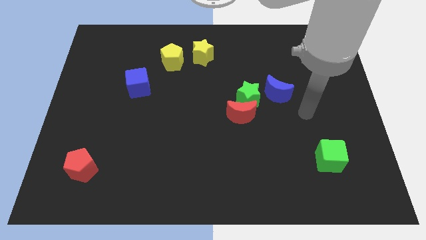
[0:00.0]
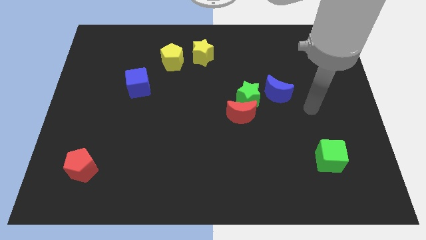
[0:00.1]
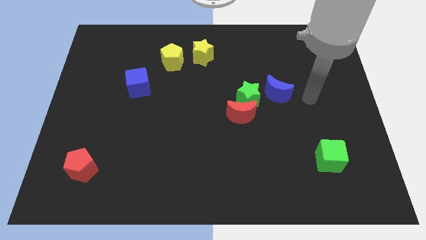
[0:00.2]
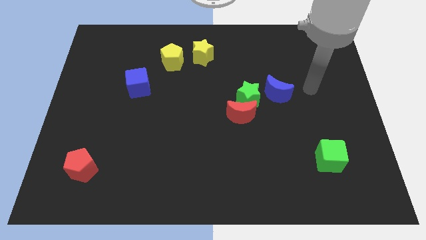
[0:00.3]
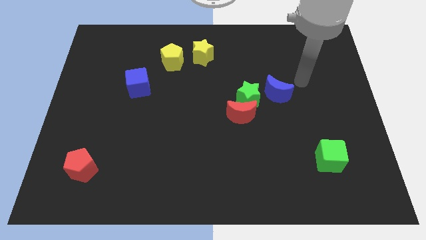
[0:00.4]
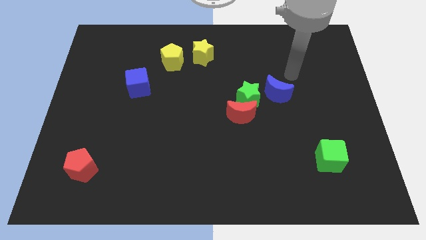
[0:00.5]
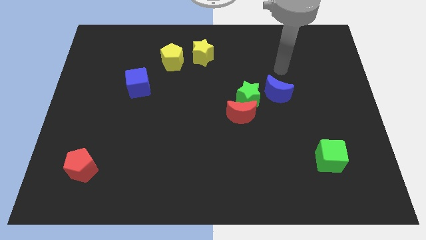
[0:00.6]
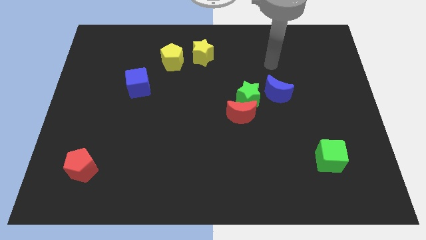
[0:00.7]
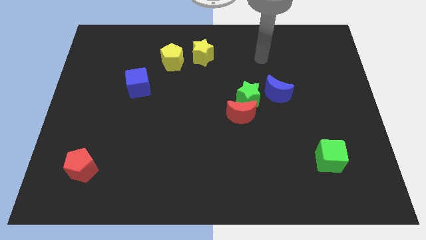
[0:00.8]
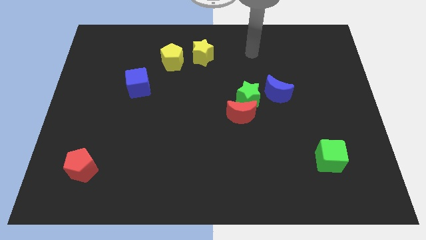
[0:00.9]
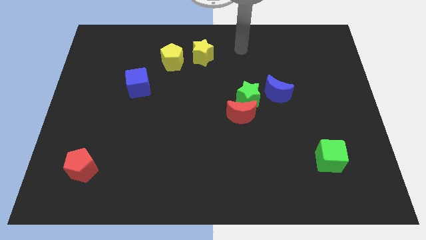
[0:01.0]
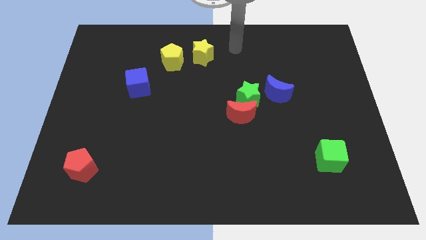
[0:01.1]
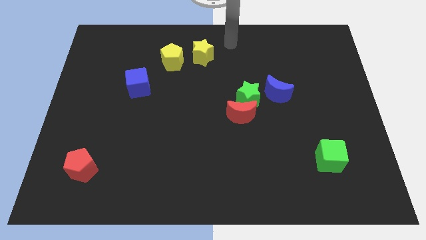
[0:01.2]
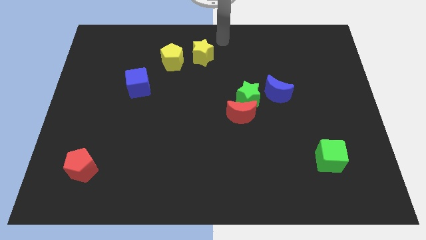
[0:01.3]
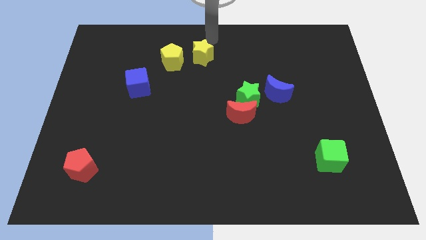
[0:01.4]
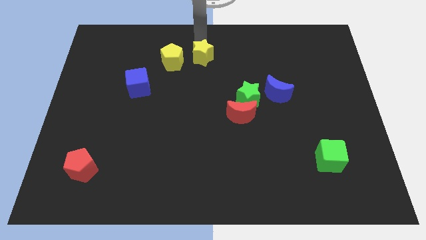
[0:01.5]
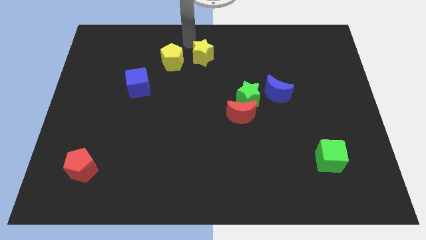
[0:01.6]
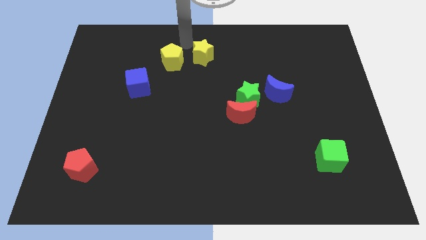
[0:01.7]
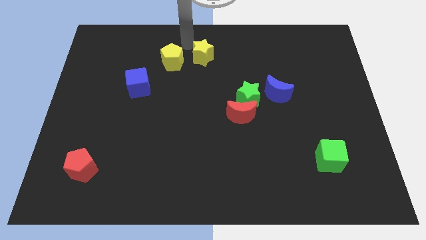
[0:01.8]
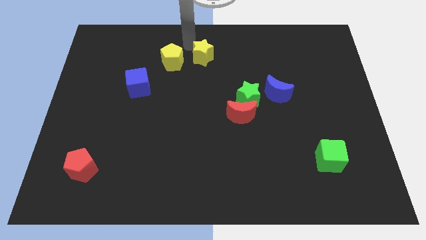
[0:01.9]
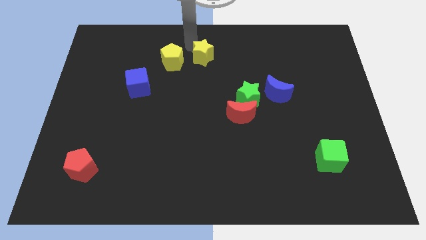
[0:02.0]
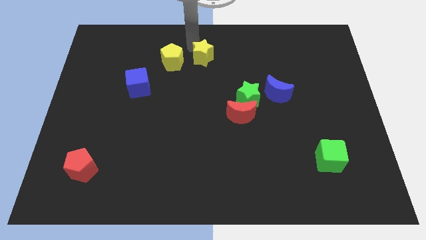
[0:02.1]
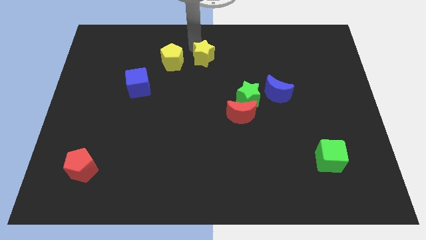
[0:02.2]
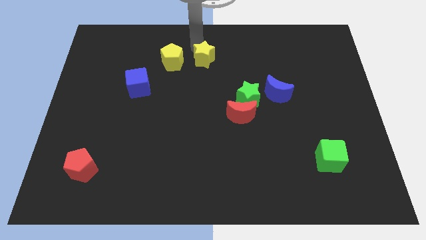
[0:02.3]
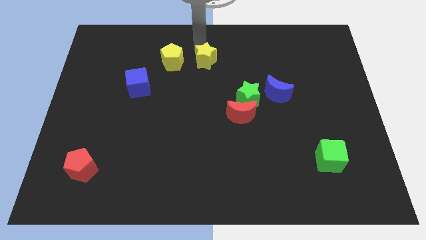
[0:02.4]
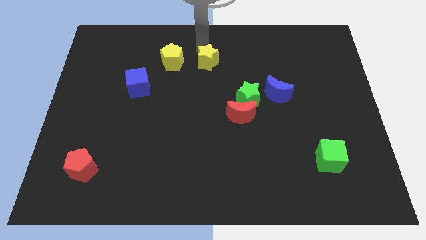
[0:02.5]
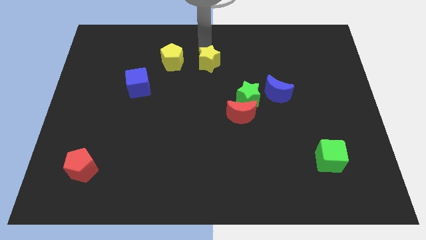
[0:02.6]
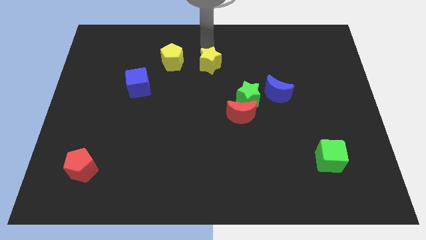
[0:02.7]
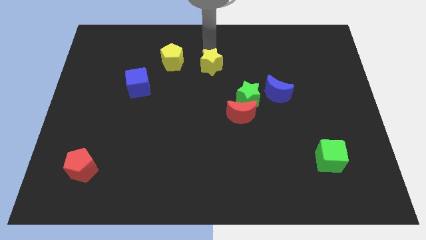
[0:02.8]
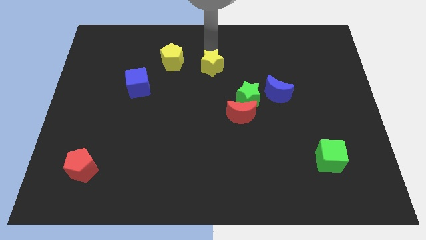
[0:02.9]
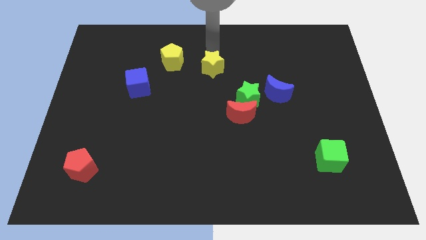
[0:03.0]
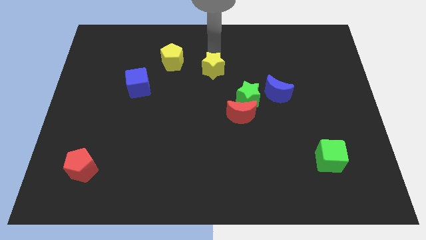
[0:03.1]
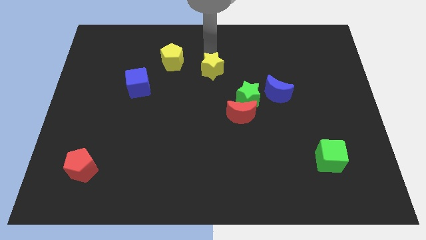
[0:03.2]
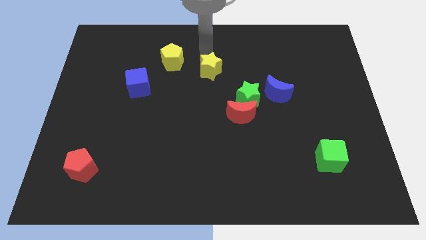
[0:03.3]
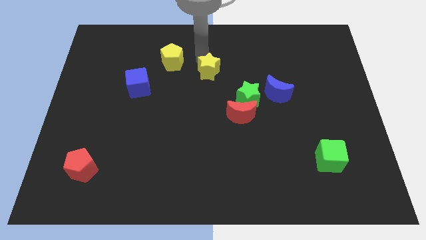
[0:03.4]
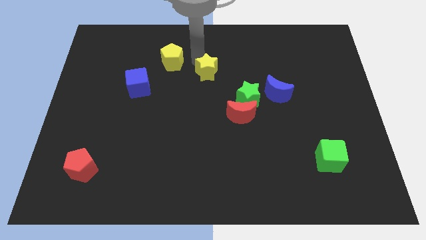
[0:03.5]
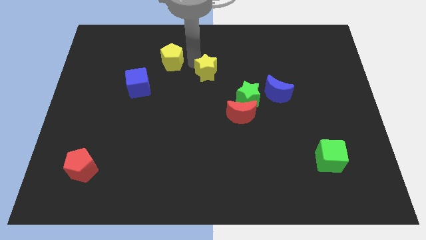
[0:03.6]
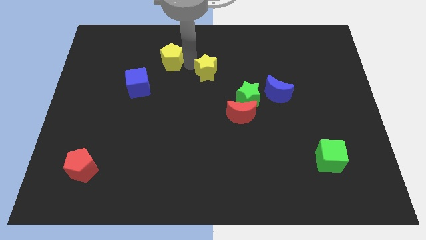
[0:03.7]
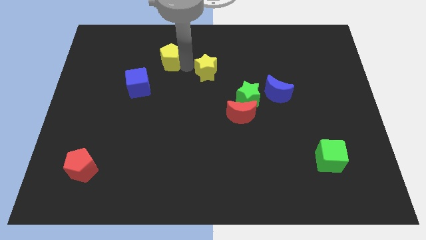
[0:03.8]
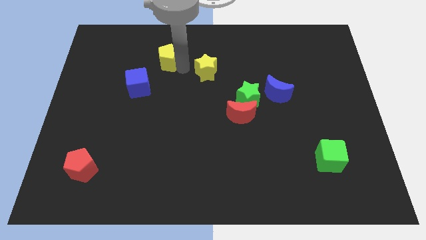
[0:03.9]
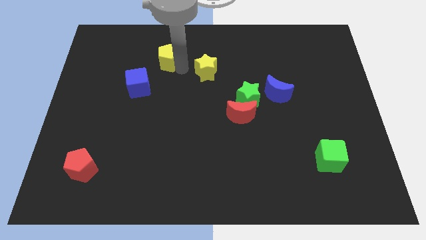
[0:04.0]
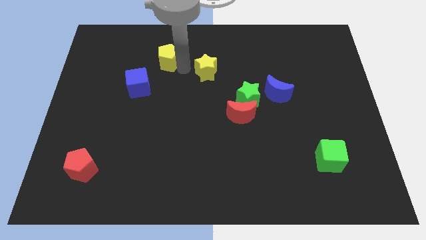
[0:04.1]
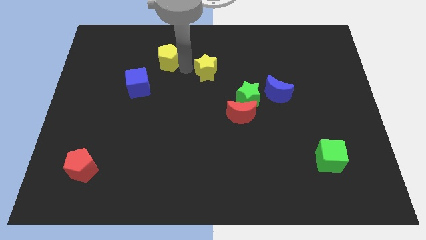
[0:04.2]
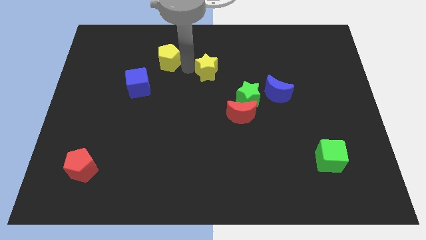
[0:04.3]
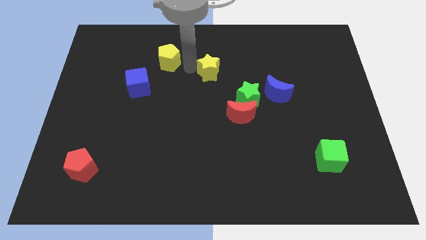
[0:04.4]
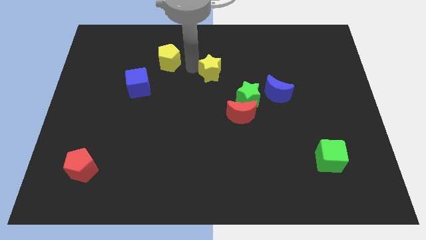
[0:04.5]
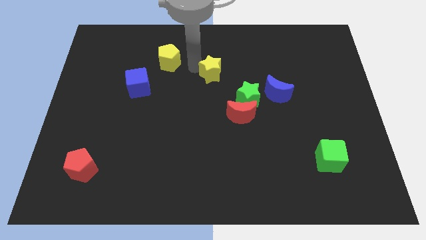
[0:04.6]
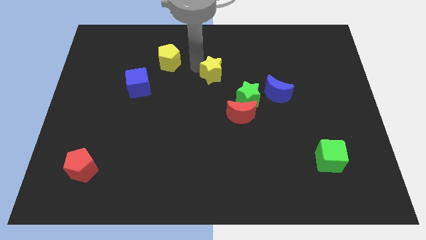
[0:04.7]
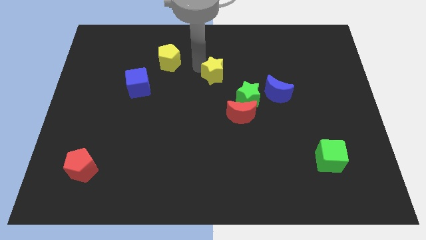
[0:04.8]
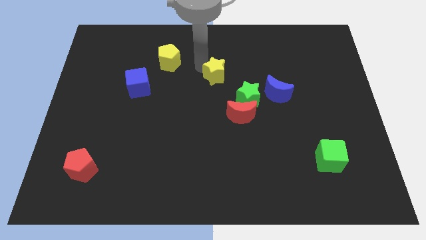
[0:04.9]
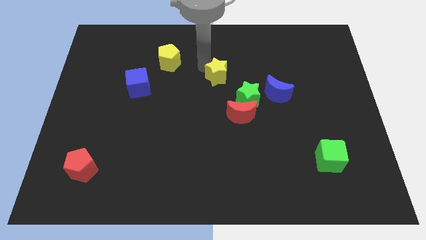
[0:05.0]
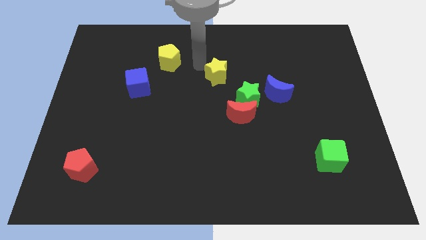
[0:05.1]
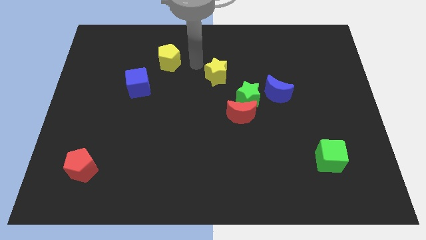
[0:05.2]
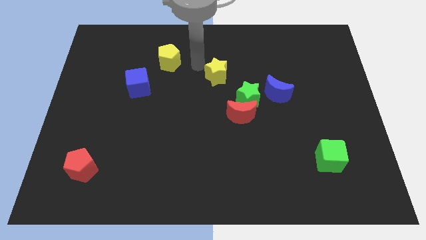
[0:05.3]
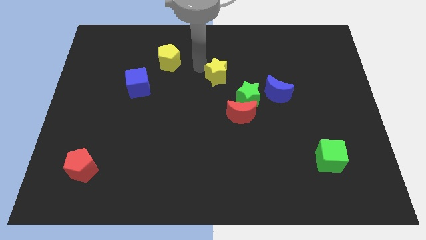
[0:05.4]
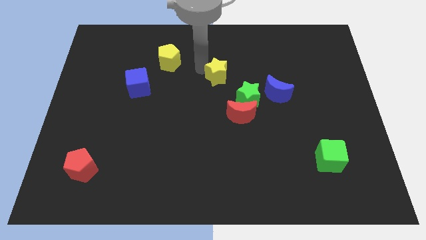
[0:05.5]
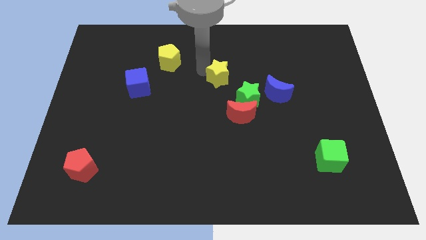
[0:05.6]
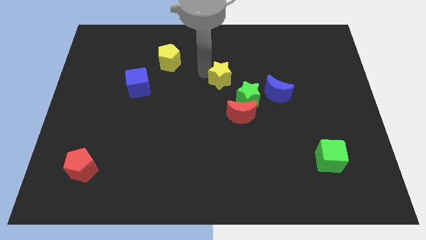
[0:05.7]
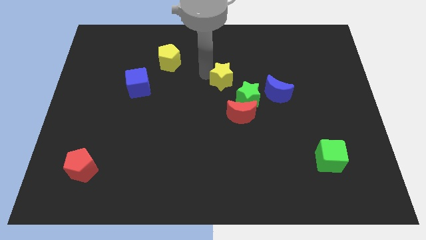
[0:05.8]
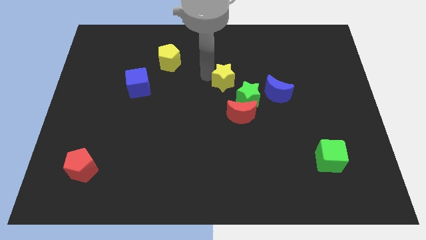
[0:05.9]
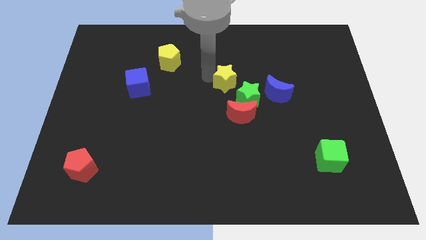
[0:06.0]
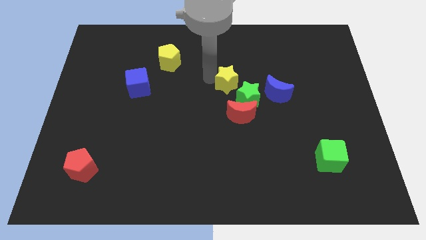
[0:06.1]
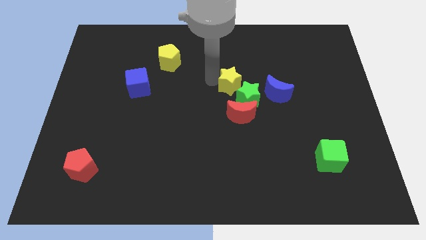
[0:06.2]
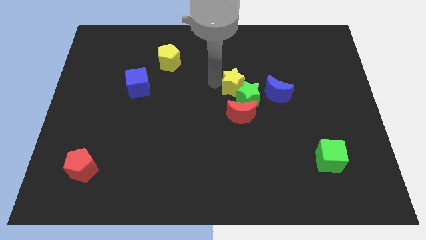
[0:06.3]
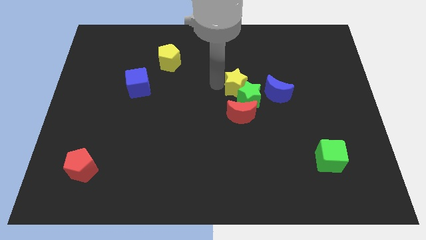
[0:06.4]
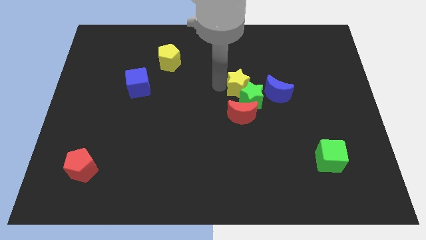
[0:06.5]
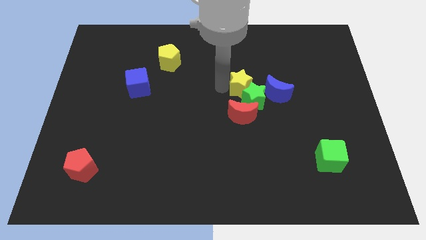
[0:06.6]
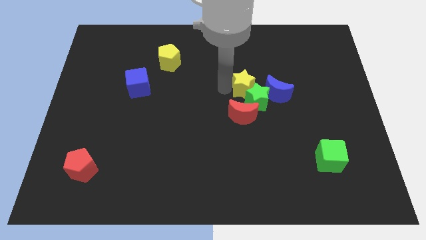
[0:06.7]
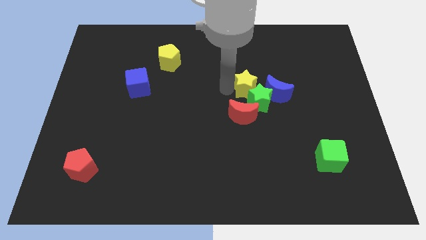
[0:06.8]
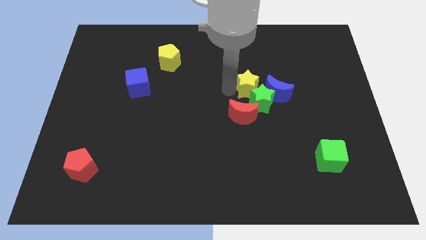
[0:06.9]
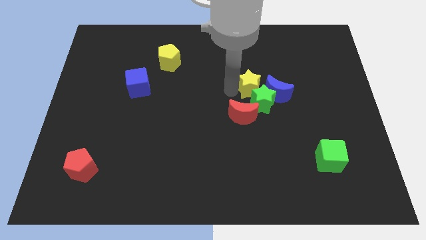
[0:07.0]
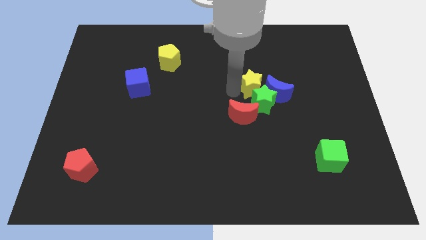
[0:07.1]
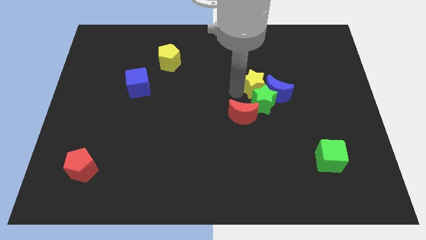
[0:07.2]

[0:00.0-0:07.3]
slide the yellow star close to the blue moon
